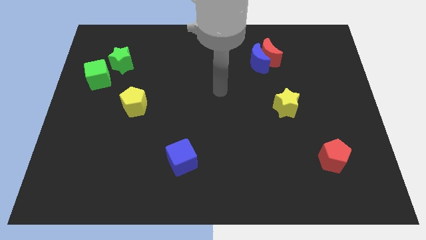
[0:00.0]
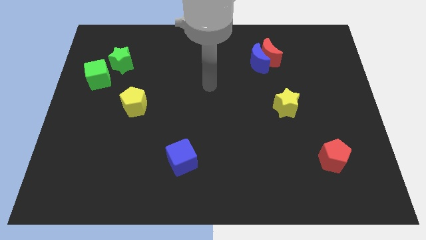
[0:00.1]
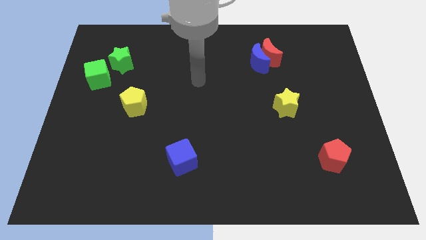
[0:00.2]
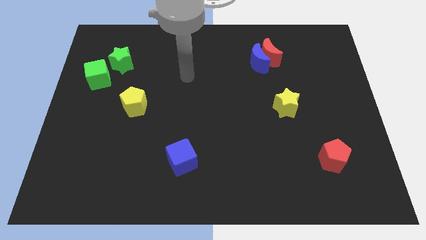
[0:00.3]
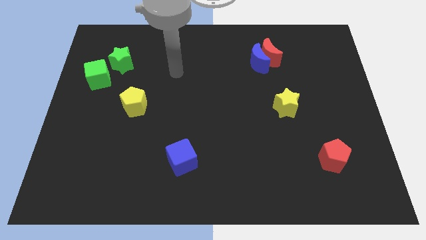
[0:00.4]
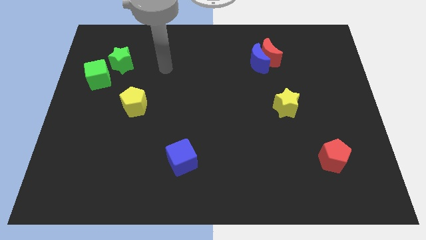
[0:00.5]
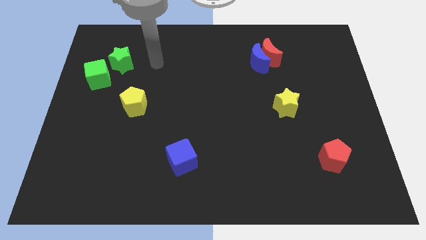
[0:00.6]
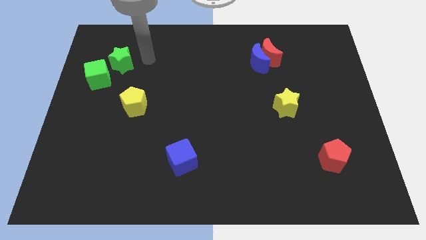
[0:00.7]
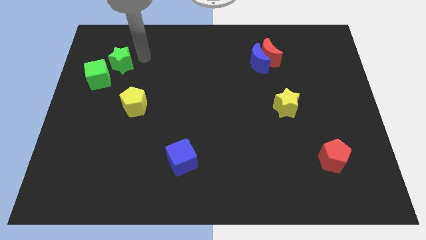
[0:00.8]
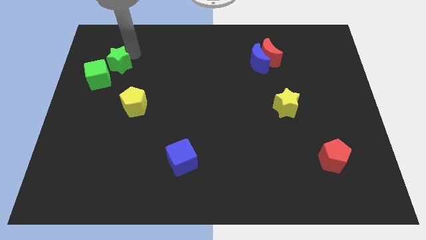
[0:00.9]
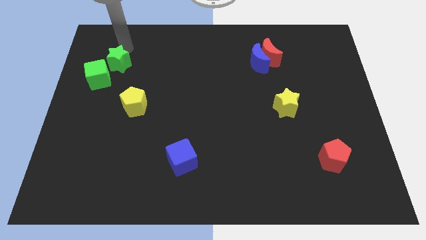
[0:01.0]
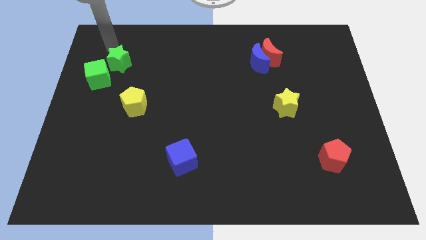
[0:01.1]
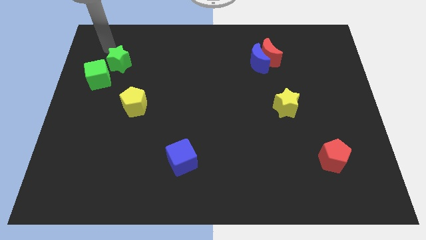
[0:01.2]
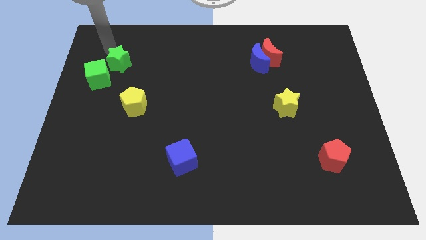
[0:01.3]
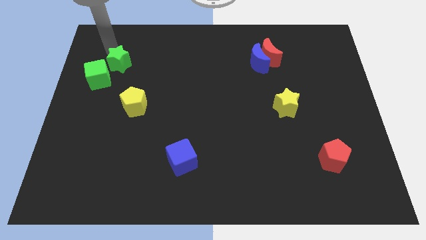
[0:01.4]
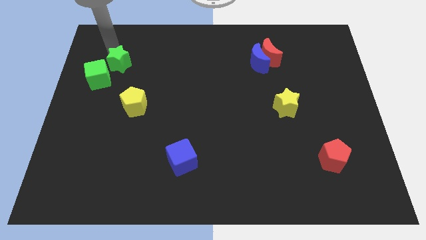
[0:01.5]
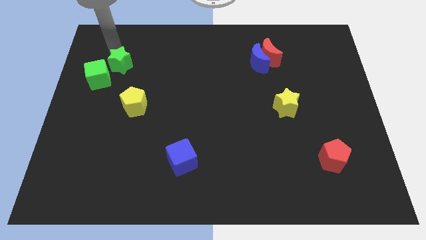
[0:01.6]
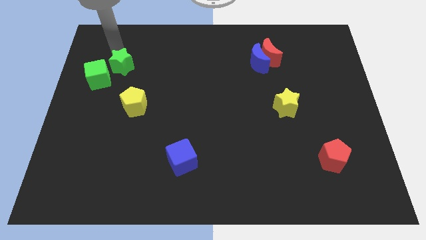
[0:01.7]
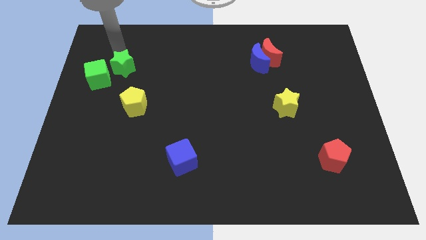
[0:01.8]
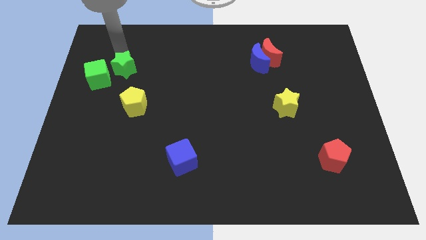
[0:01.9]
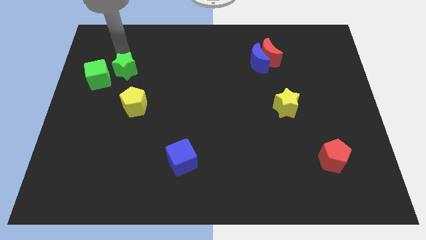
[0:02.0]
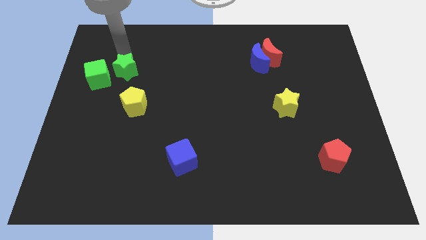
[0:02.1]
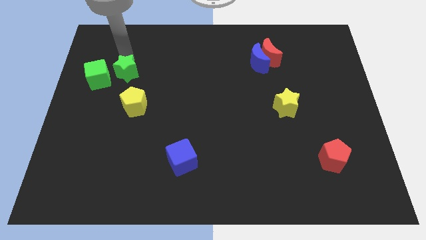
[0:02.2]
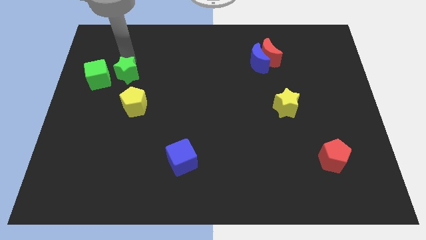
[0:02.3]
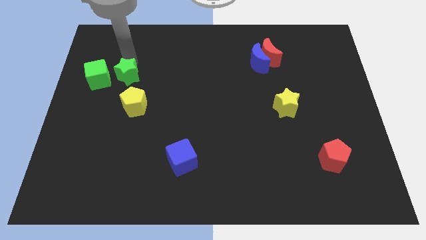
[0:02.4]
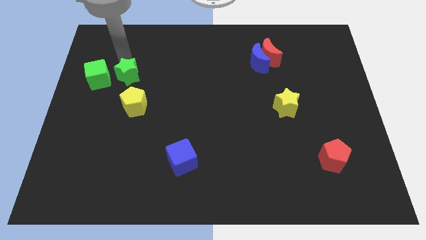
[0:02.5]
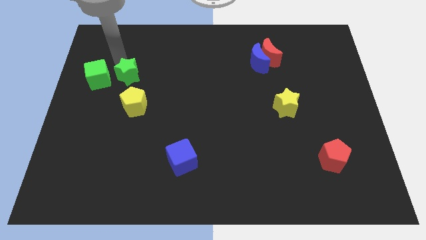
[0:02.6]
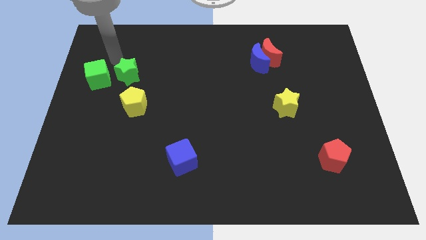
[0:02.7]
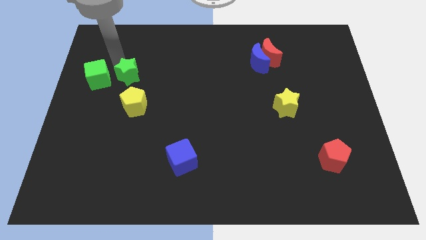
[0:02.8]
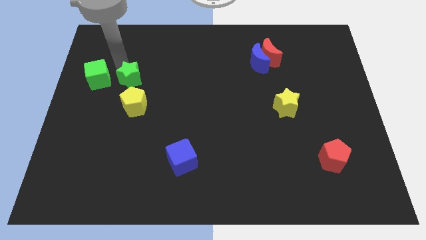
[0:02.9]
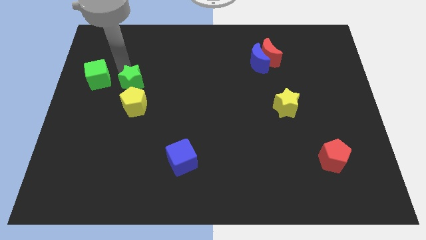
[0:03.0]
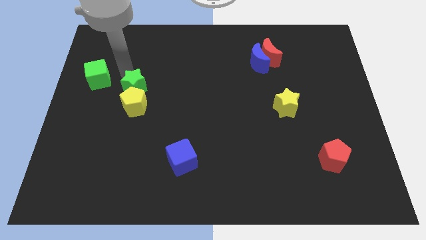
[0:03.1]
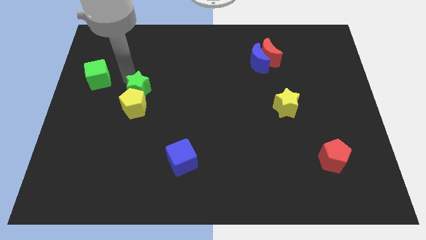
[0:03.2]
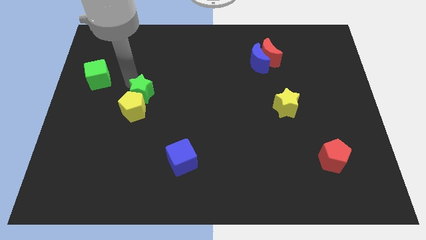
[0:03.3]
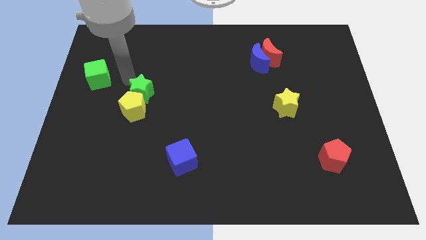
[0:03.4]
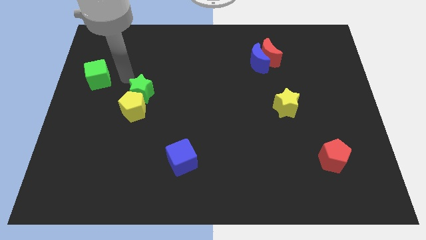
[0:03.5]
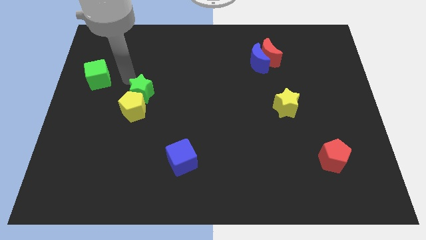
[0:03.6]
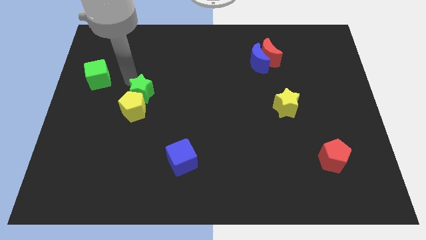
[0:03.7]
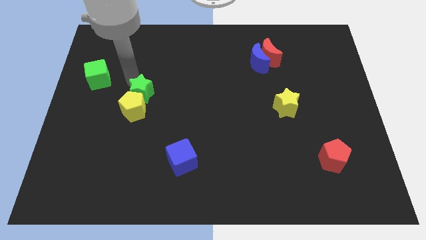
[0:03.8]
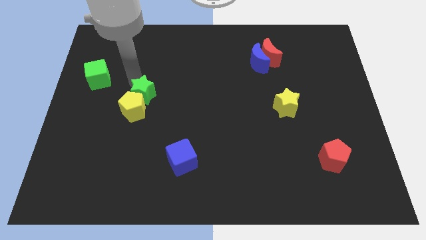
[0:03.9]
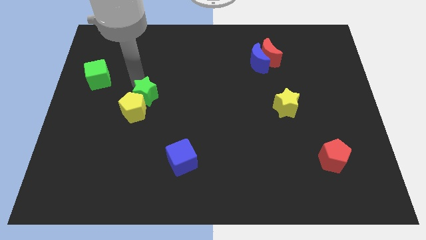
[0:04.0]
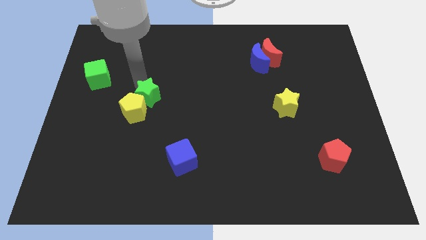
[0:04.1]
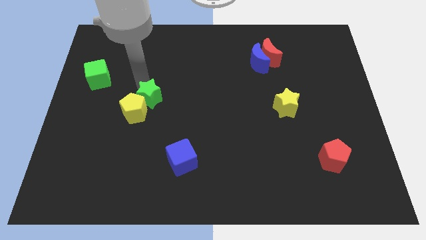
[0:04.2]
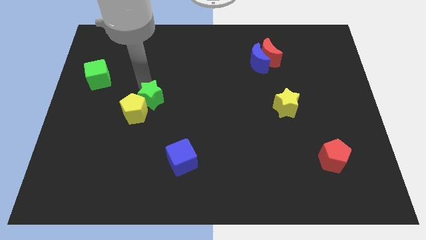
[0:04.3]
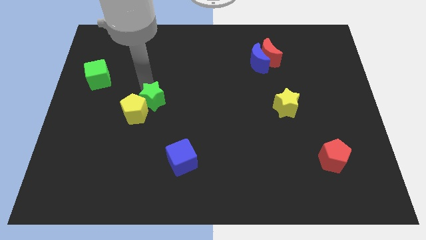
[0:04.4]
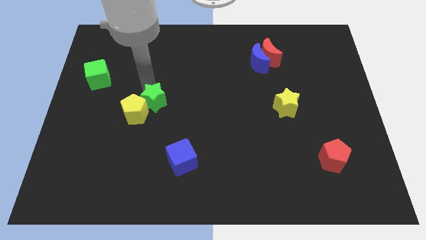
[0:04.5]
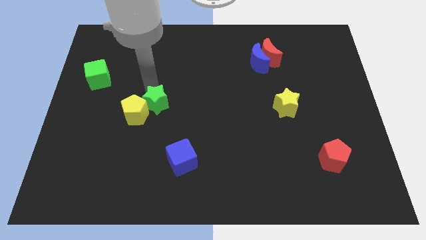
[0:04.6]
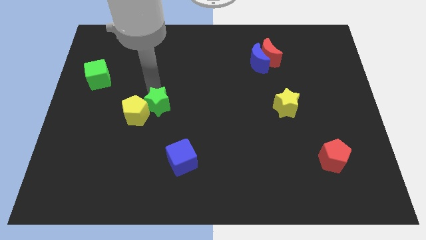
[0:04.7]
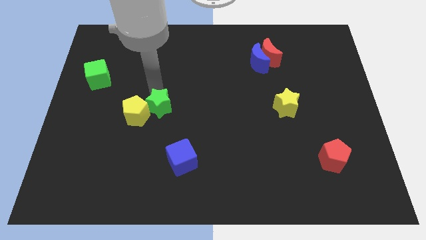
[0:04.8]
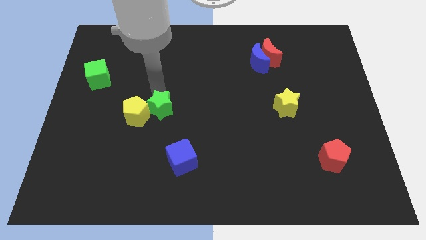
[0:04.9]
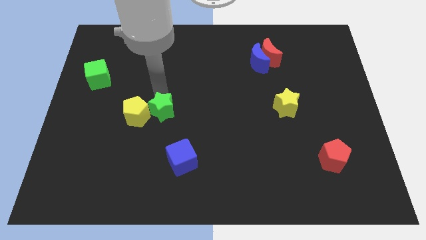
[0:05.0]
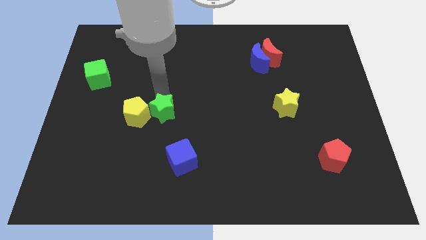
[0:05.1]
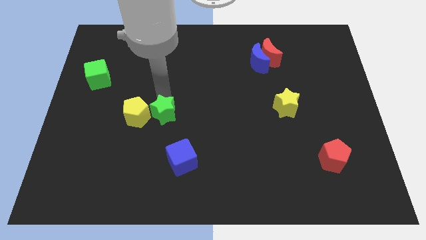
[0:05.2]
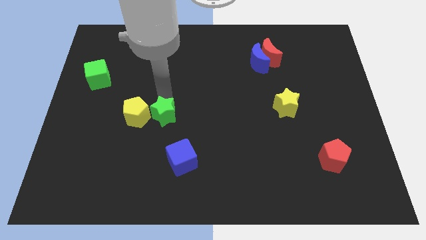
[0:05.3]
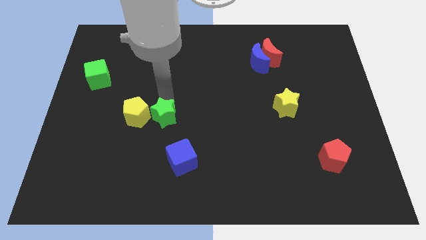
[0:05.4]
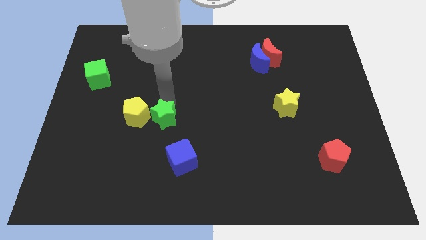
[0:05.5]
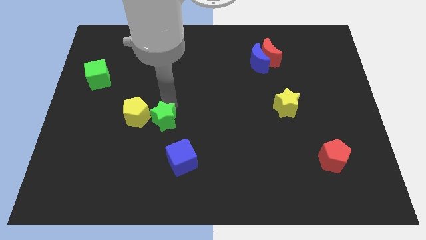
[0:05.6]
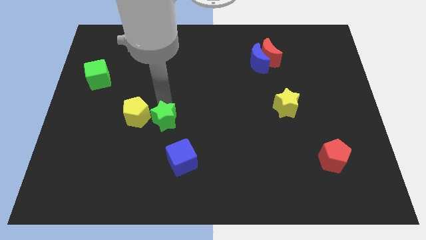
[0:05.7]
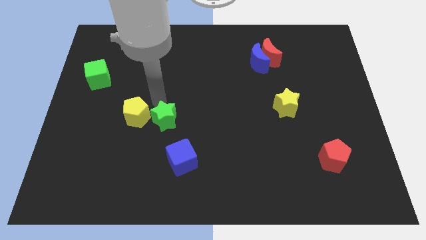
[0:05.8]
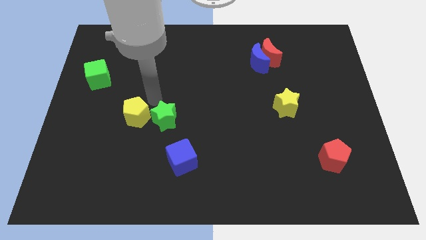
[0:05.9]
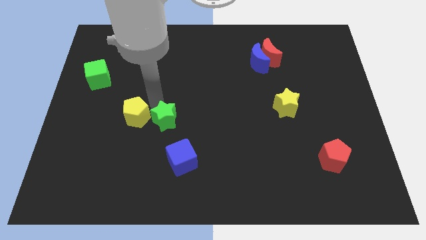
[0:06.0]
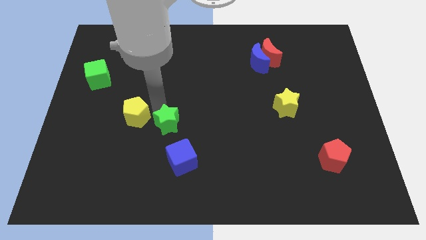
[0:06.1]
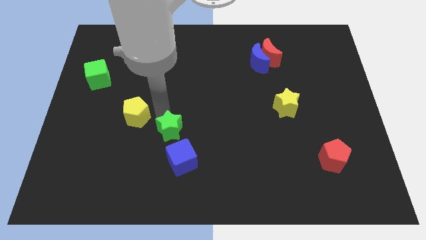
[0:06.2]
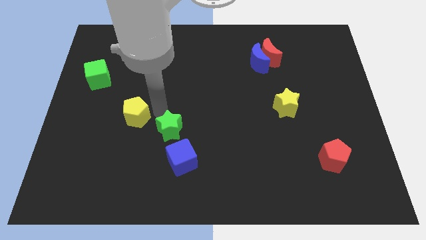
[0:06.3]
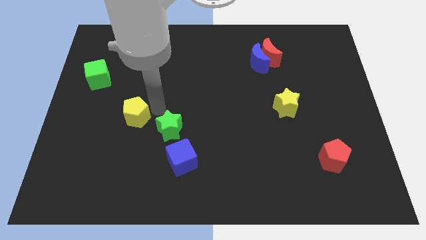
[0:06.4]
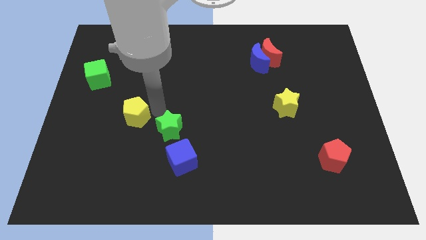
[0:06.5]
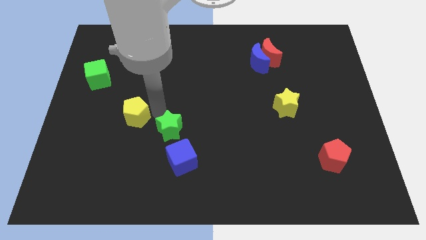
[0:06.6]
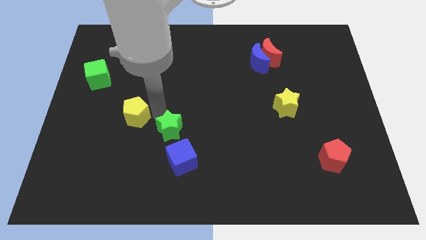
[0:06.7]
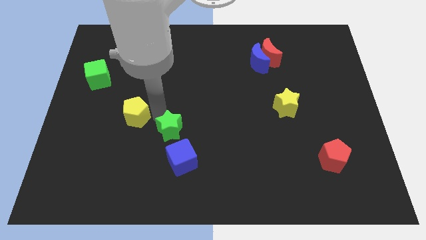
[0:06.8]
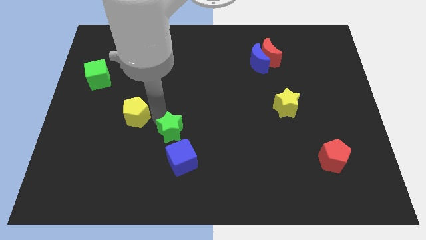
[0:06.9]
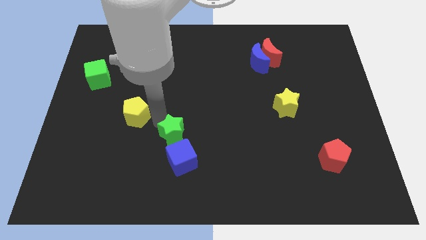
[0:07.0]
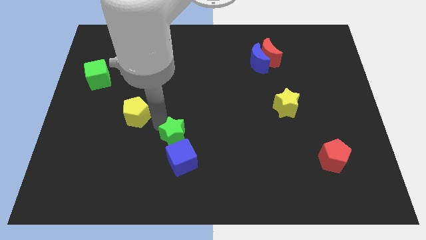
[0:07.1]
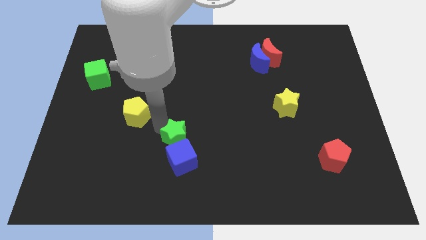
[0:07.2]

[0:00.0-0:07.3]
put the green star to the blue cube
